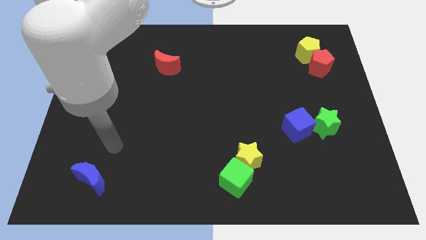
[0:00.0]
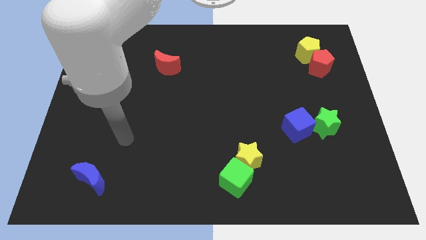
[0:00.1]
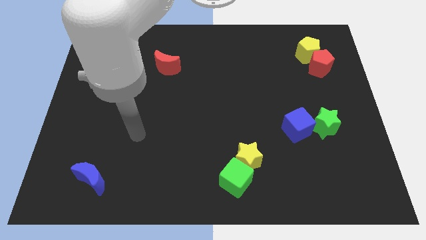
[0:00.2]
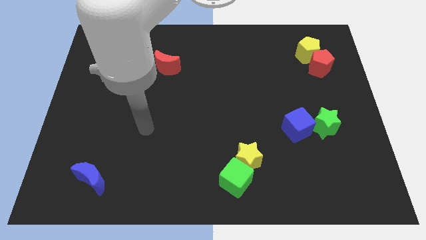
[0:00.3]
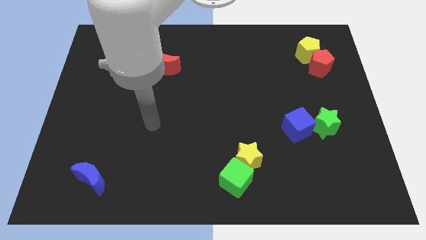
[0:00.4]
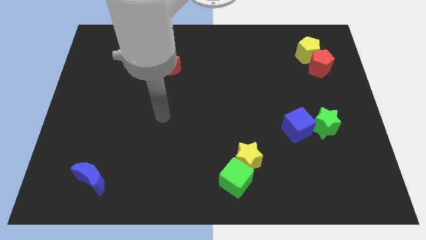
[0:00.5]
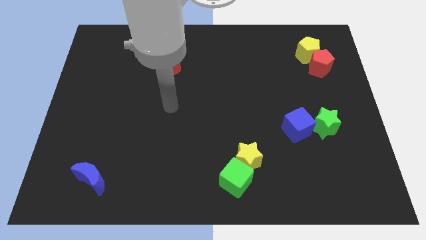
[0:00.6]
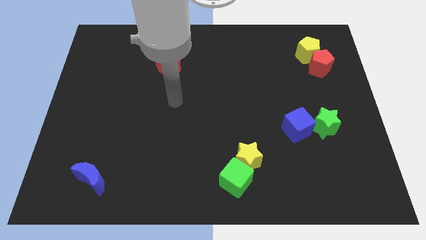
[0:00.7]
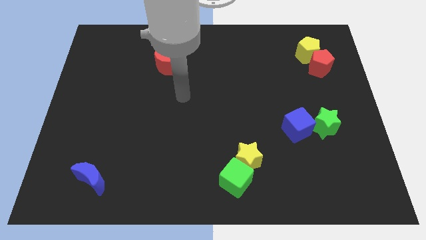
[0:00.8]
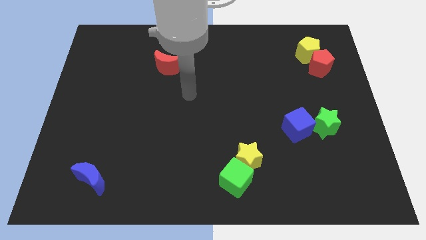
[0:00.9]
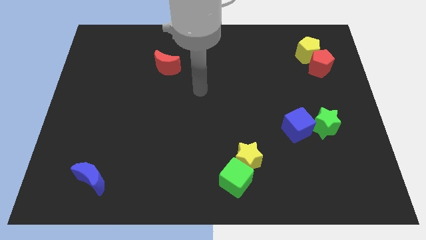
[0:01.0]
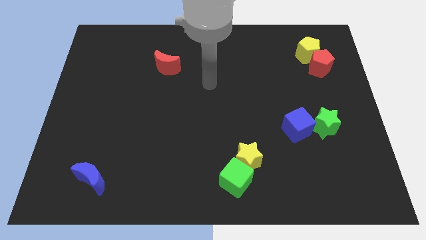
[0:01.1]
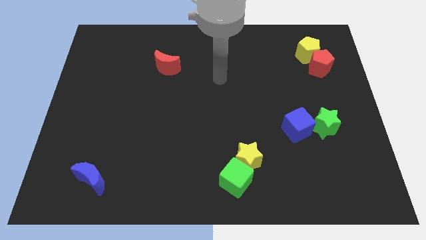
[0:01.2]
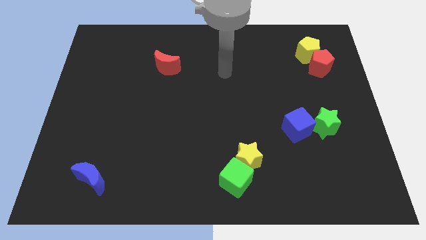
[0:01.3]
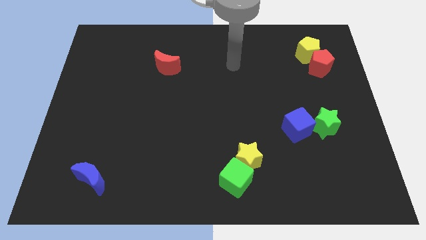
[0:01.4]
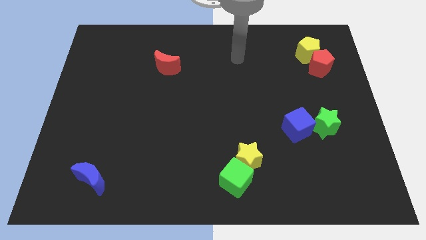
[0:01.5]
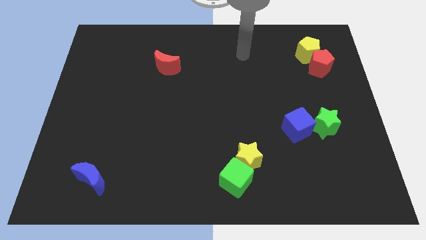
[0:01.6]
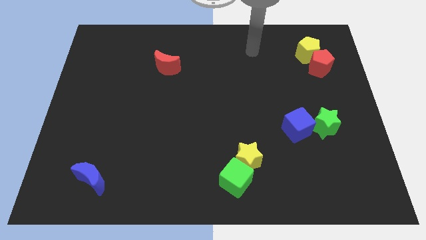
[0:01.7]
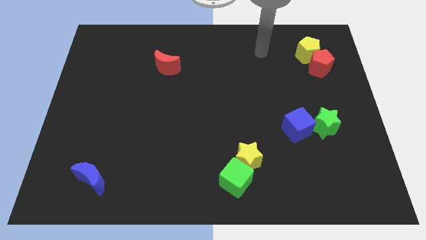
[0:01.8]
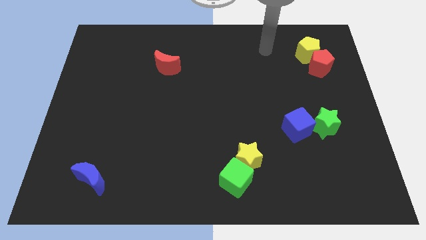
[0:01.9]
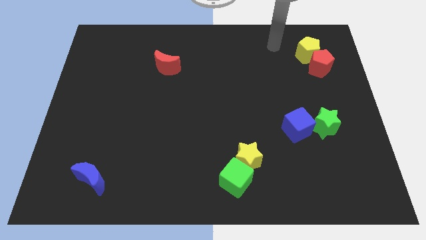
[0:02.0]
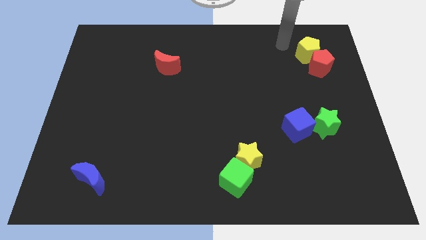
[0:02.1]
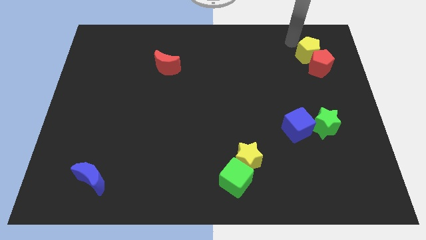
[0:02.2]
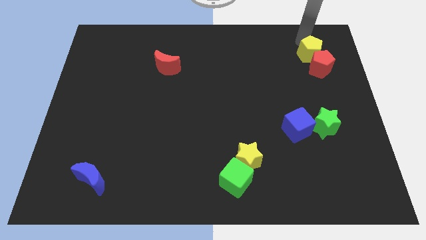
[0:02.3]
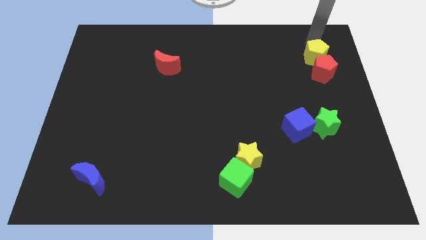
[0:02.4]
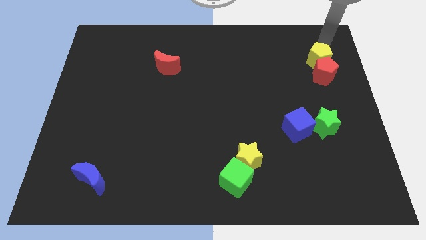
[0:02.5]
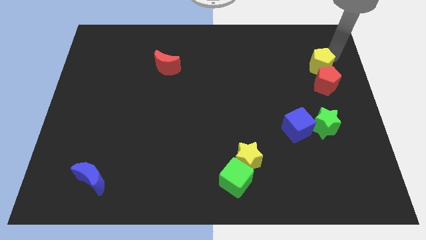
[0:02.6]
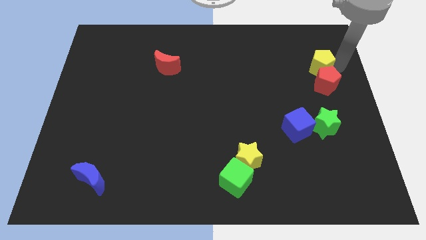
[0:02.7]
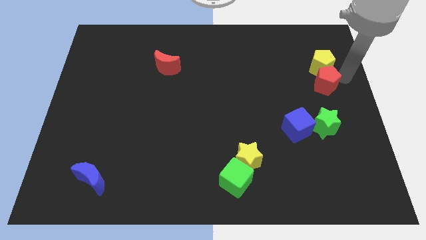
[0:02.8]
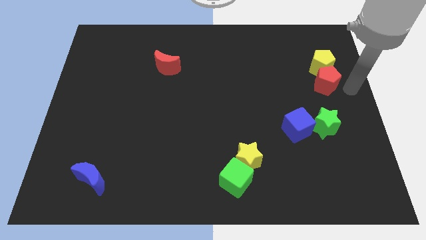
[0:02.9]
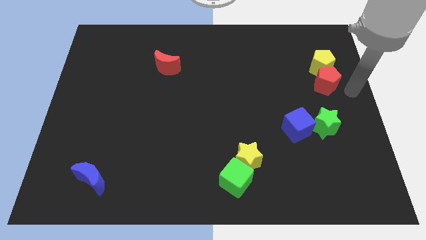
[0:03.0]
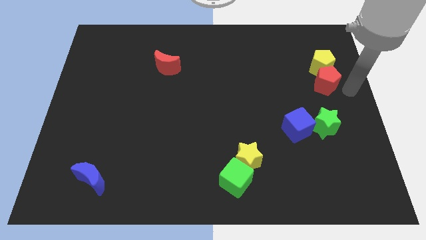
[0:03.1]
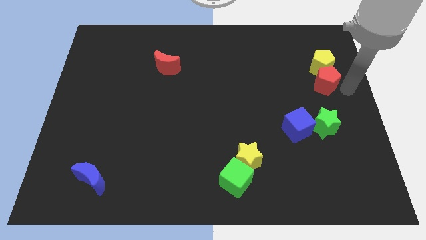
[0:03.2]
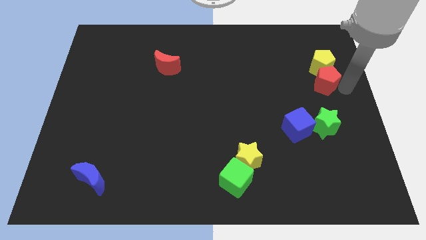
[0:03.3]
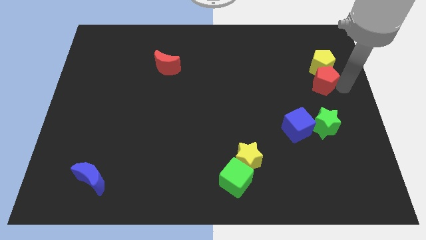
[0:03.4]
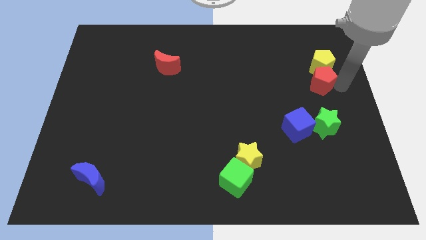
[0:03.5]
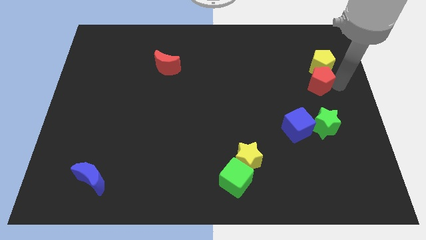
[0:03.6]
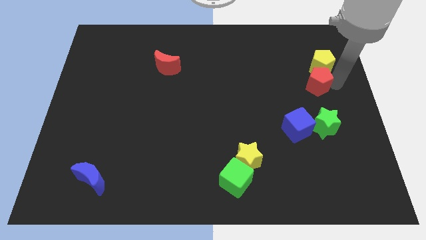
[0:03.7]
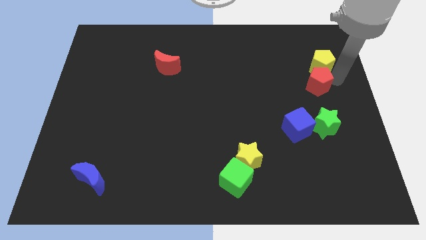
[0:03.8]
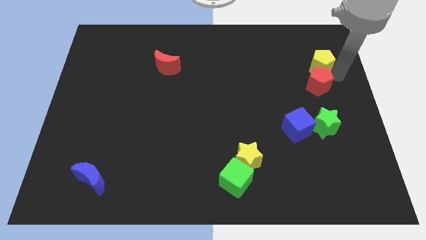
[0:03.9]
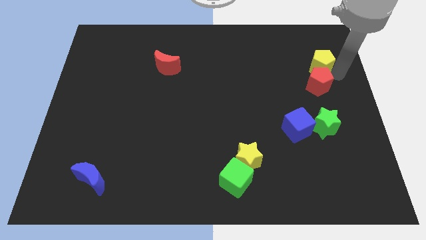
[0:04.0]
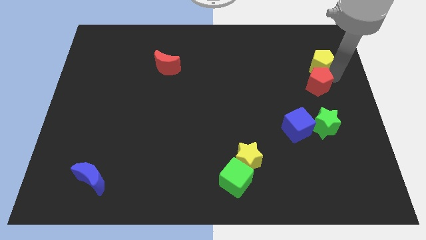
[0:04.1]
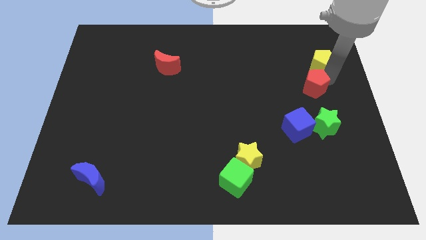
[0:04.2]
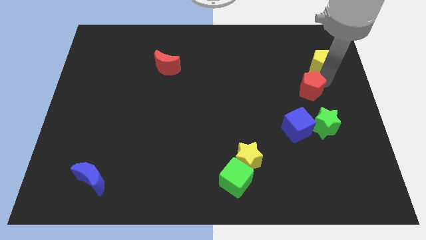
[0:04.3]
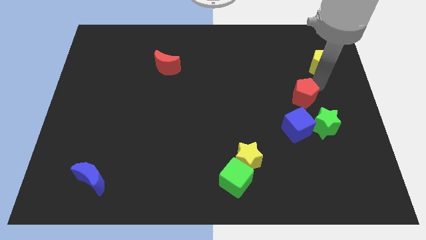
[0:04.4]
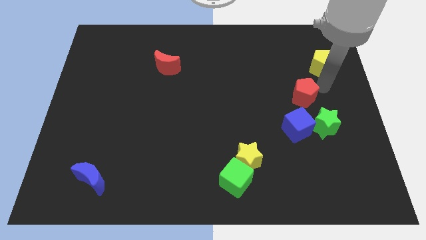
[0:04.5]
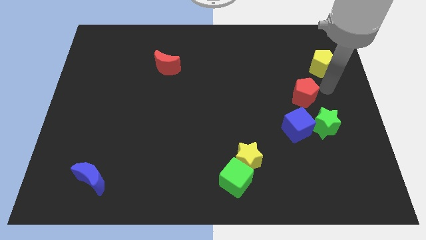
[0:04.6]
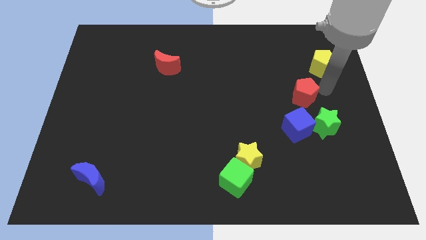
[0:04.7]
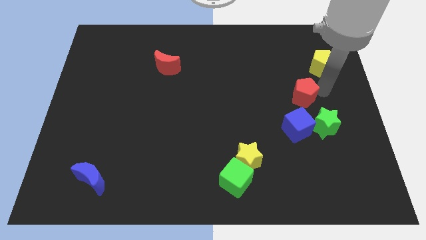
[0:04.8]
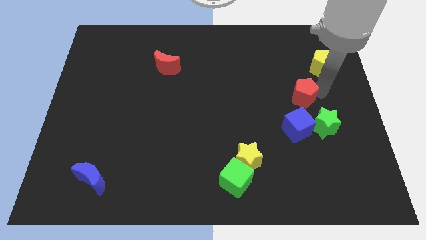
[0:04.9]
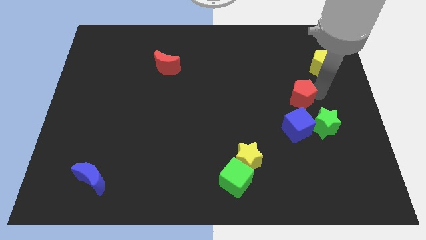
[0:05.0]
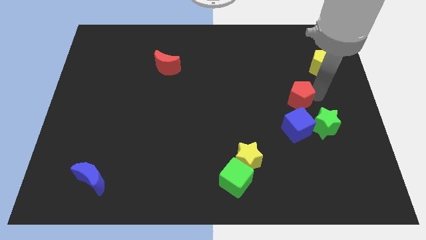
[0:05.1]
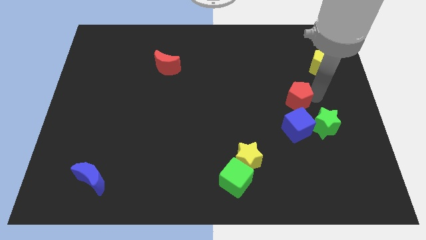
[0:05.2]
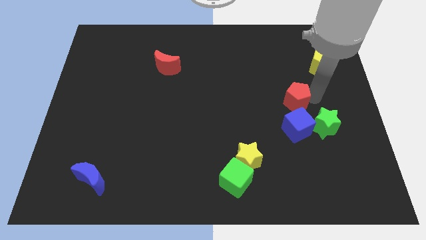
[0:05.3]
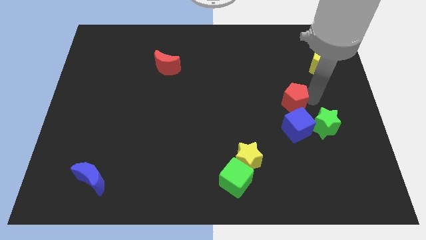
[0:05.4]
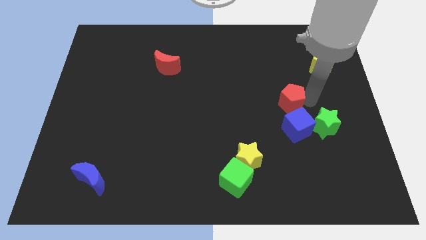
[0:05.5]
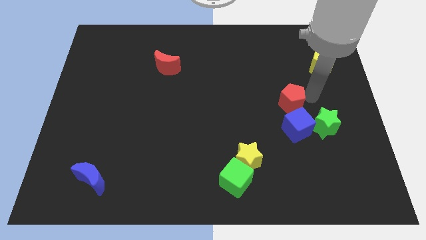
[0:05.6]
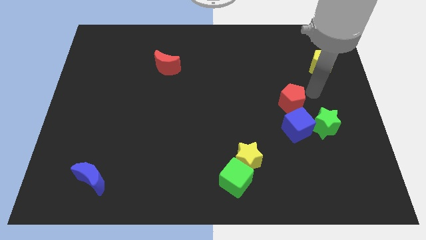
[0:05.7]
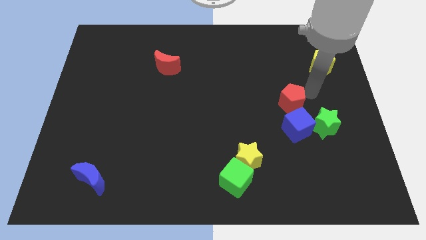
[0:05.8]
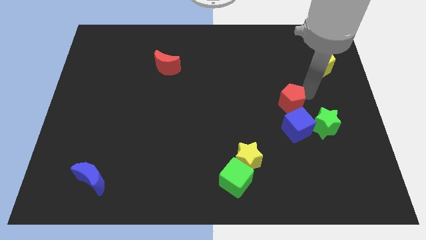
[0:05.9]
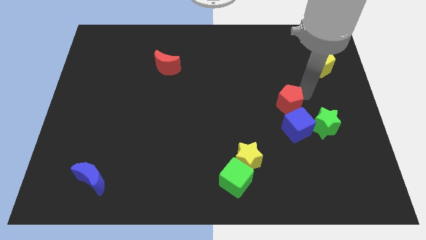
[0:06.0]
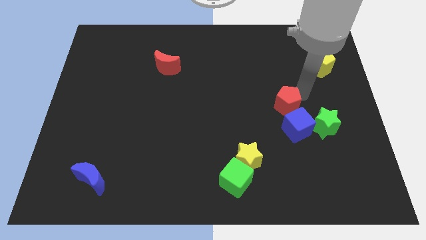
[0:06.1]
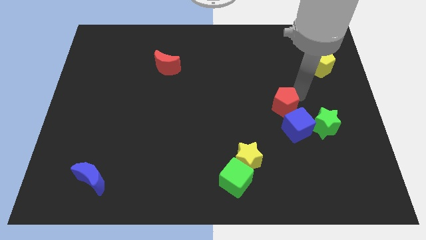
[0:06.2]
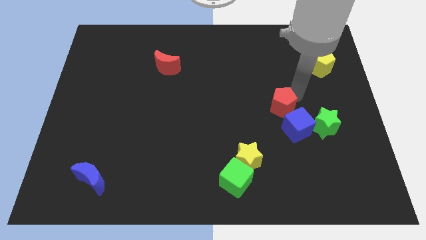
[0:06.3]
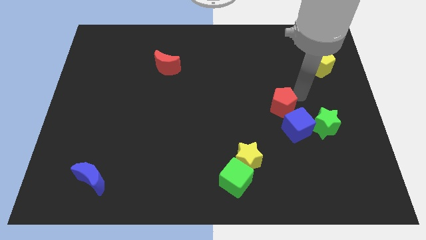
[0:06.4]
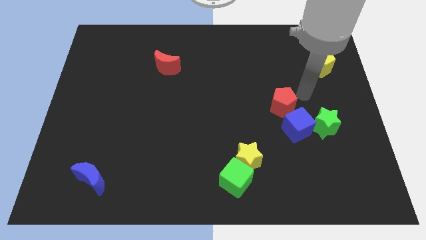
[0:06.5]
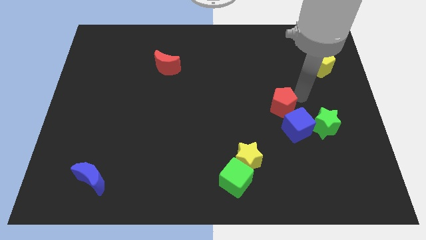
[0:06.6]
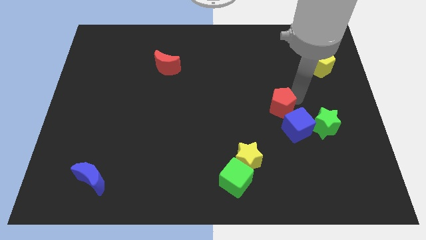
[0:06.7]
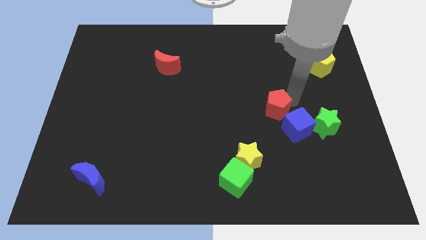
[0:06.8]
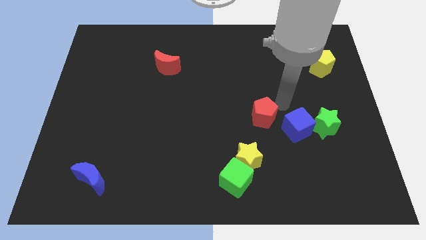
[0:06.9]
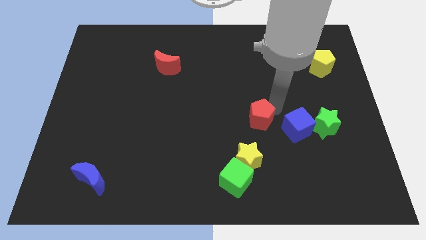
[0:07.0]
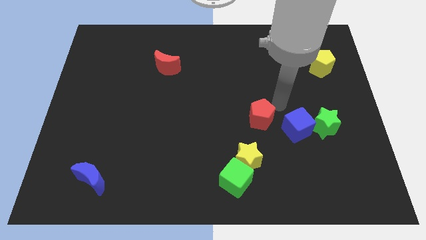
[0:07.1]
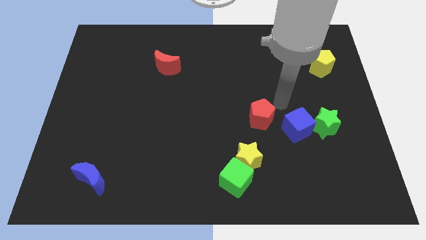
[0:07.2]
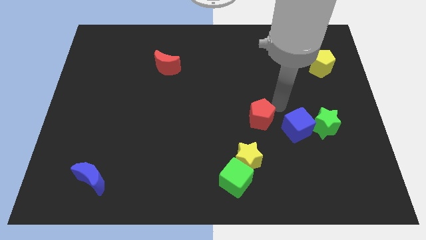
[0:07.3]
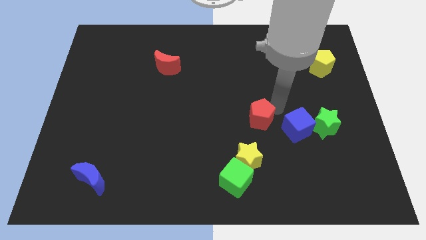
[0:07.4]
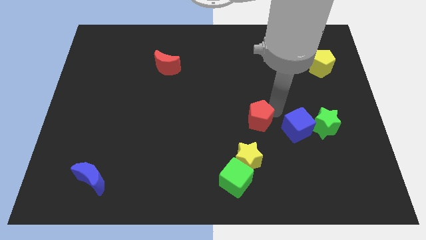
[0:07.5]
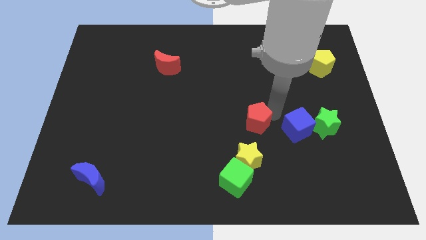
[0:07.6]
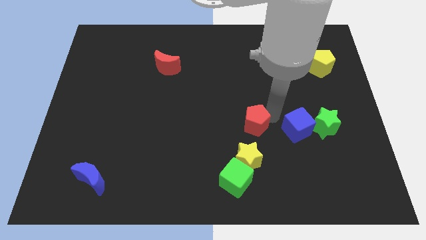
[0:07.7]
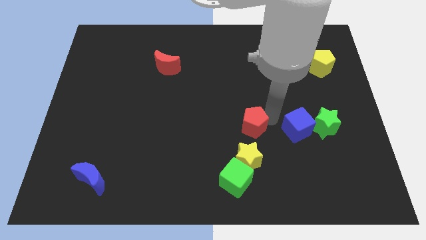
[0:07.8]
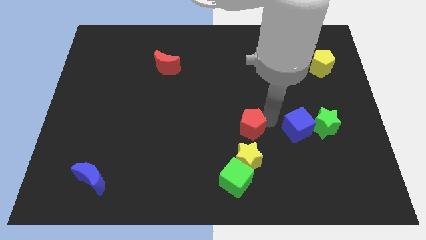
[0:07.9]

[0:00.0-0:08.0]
move the red pentagon to the top side of the green cube
